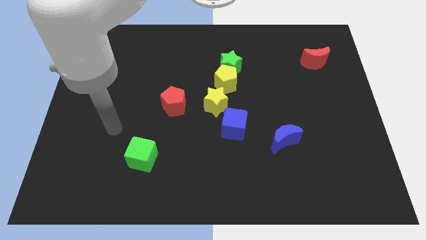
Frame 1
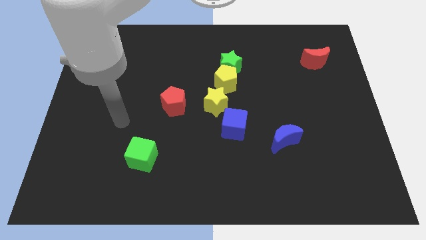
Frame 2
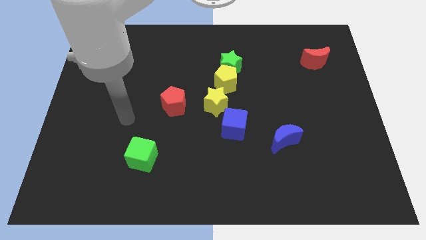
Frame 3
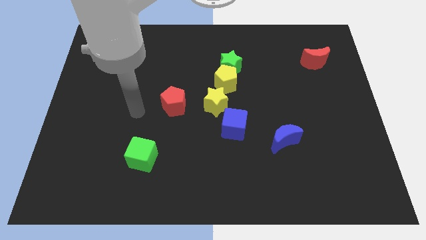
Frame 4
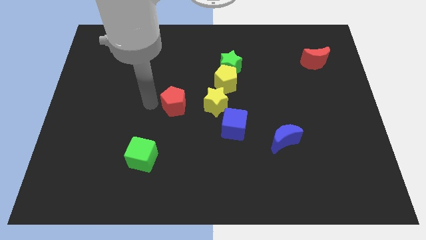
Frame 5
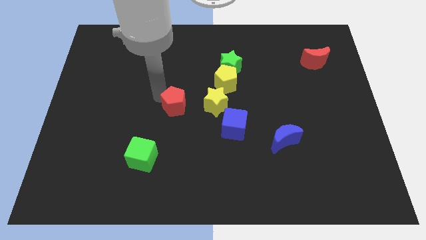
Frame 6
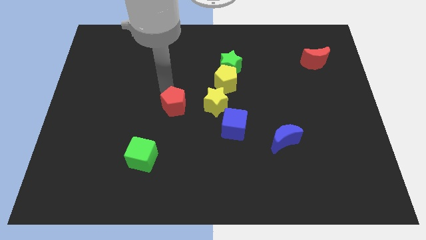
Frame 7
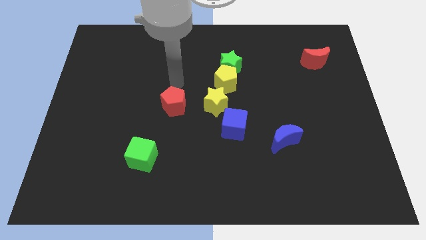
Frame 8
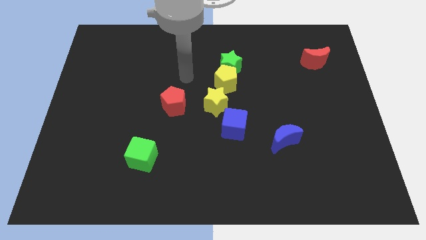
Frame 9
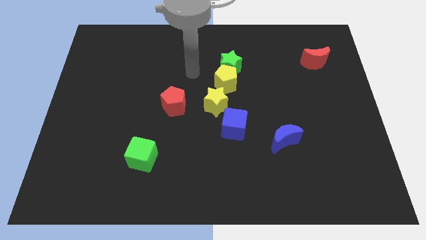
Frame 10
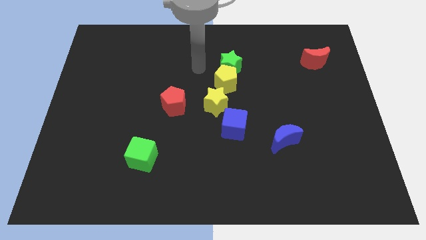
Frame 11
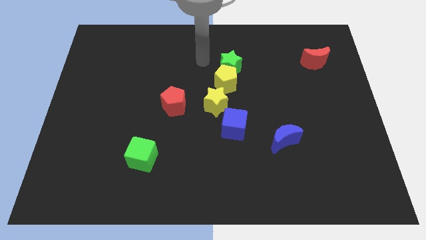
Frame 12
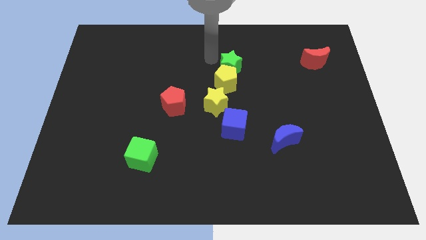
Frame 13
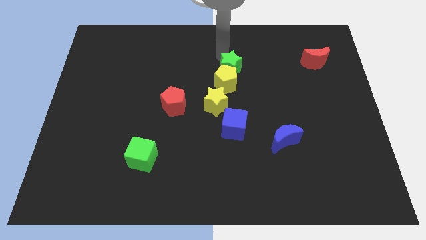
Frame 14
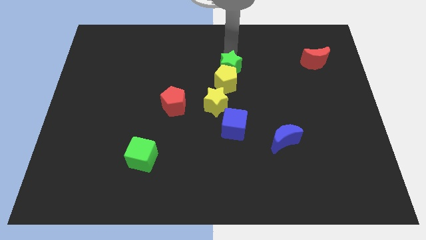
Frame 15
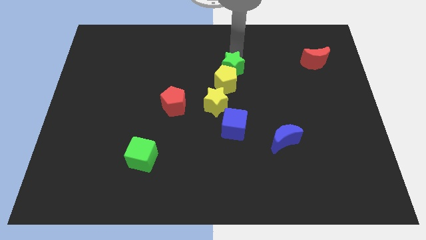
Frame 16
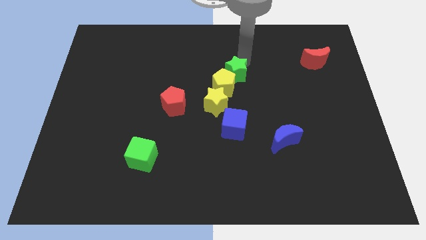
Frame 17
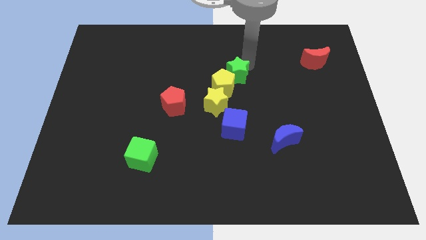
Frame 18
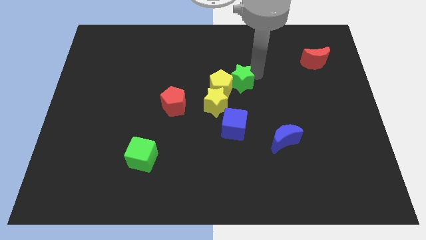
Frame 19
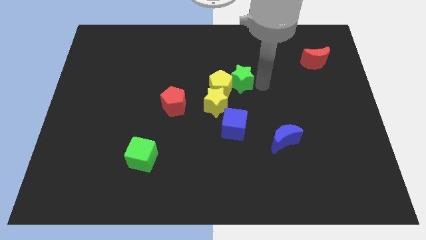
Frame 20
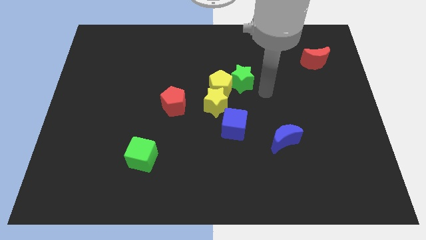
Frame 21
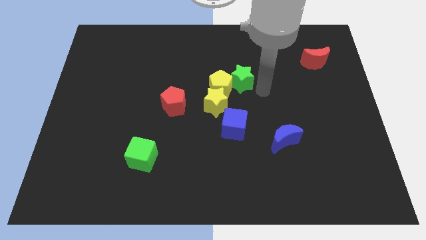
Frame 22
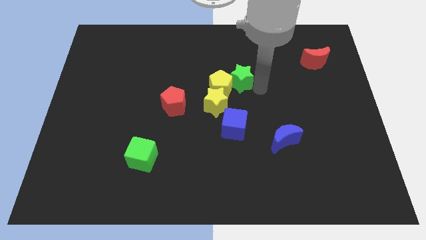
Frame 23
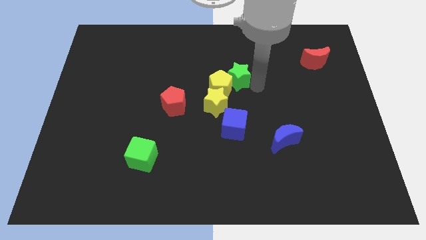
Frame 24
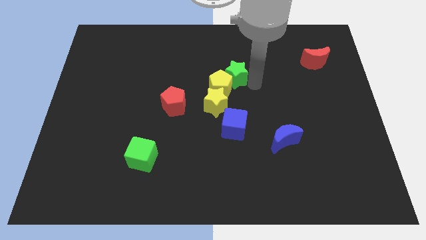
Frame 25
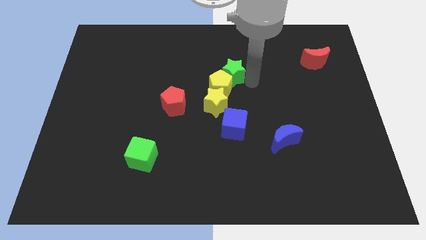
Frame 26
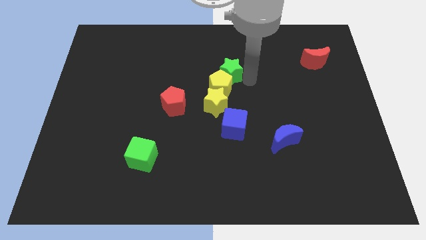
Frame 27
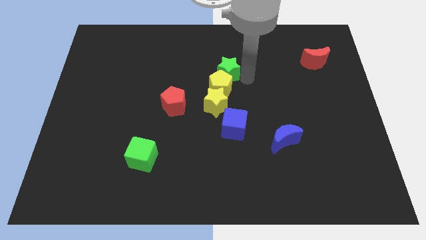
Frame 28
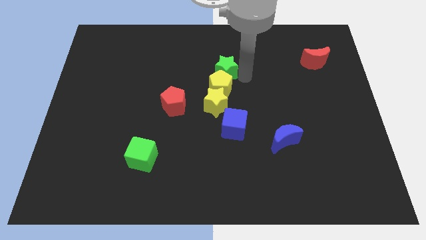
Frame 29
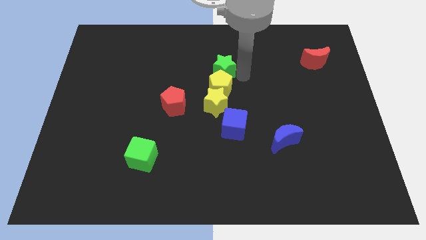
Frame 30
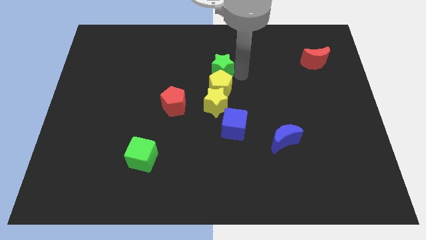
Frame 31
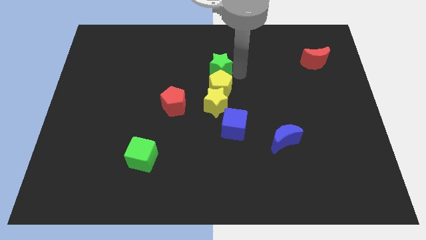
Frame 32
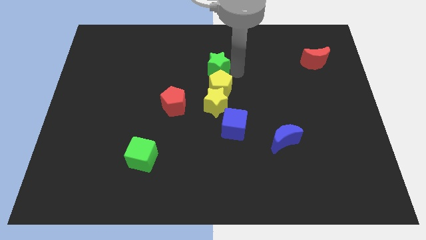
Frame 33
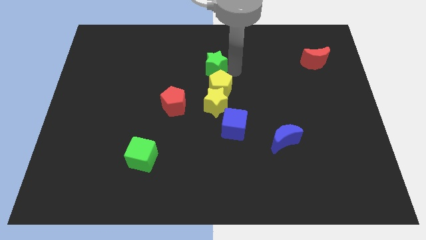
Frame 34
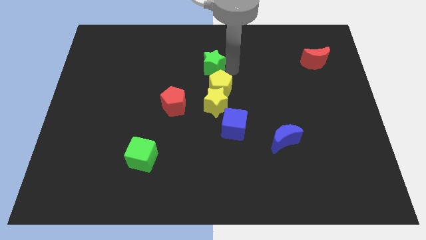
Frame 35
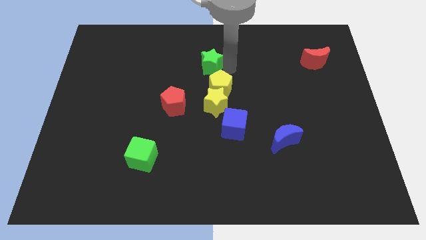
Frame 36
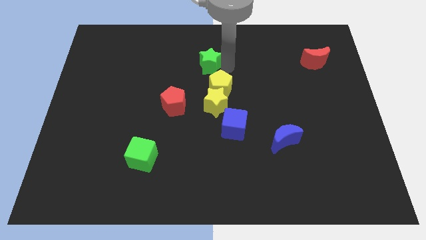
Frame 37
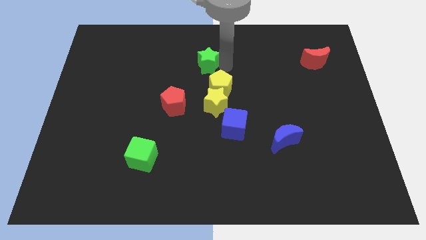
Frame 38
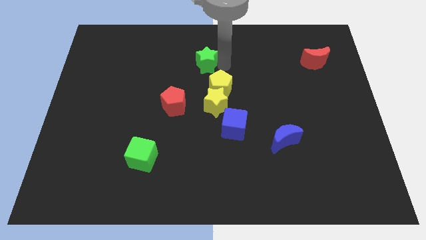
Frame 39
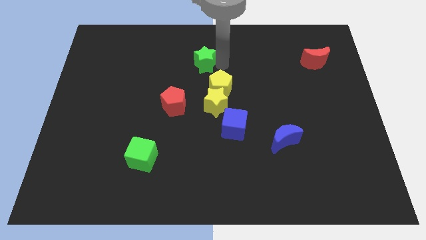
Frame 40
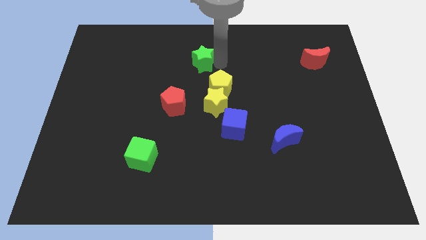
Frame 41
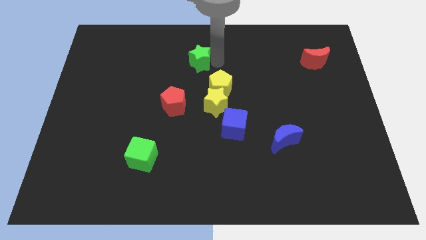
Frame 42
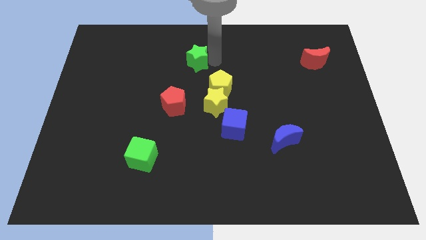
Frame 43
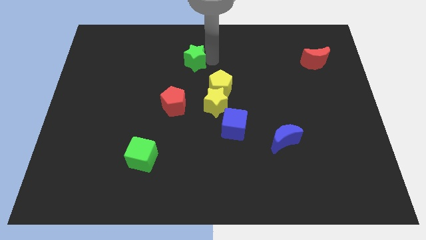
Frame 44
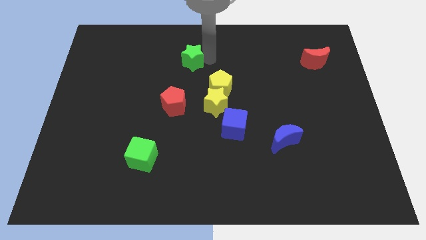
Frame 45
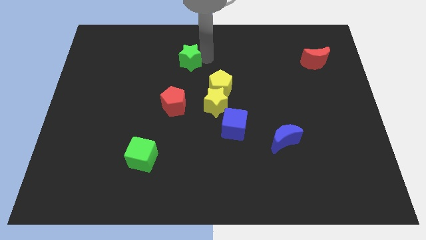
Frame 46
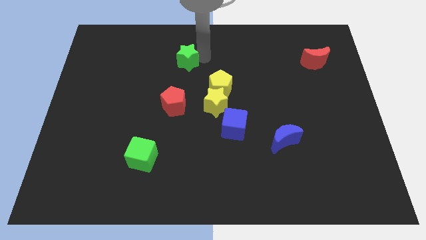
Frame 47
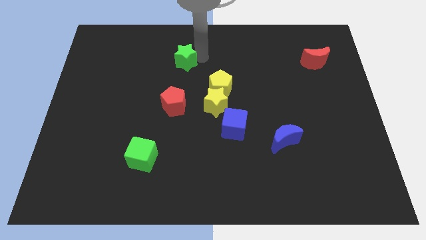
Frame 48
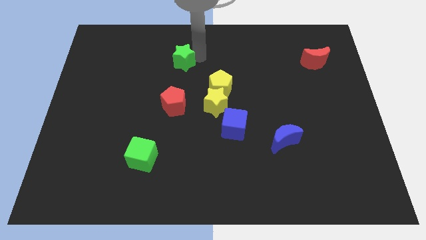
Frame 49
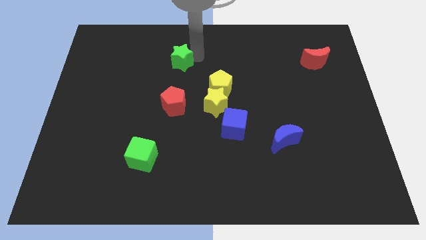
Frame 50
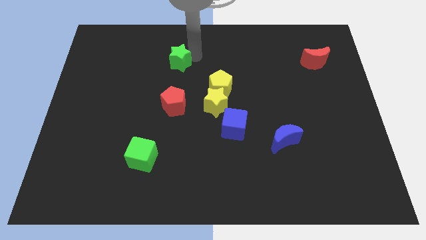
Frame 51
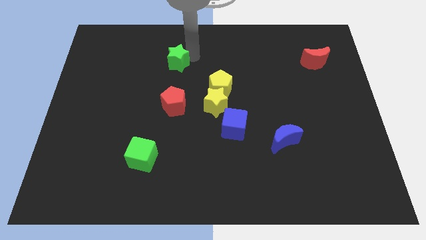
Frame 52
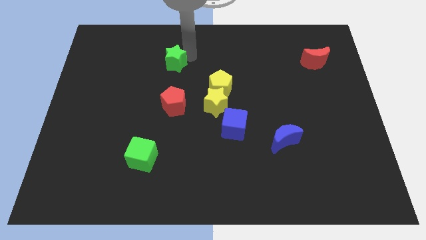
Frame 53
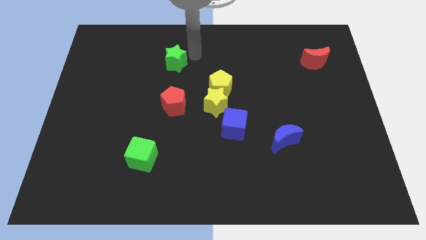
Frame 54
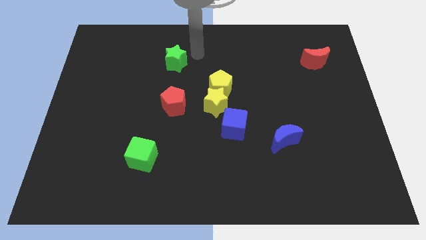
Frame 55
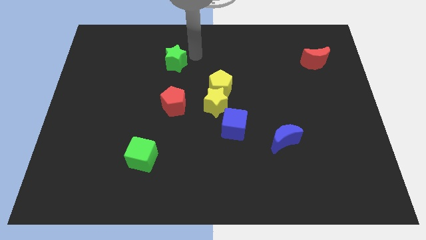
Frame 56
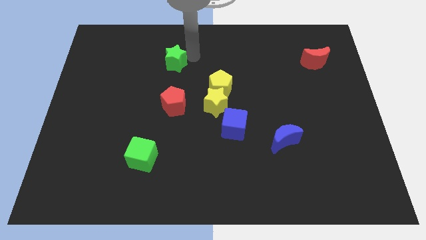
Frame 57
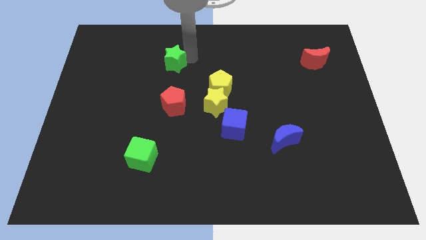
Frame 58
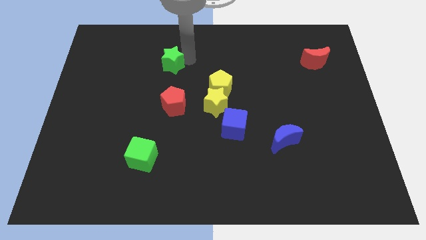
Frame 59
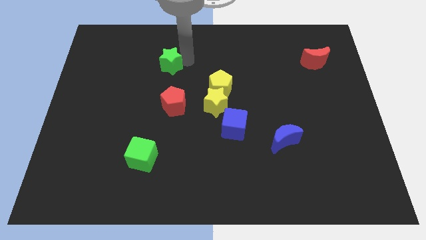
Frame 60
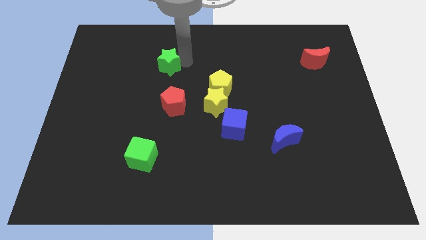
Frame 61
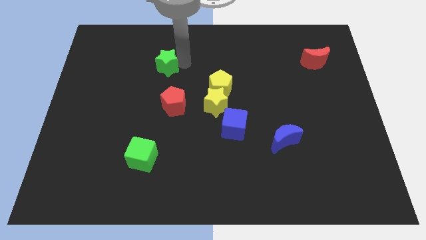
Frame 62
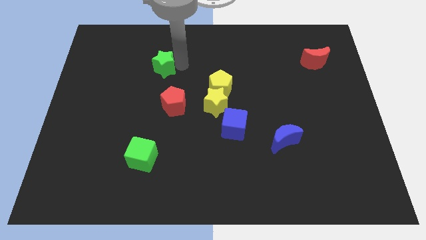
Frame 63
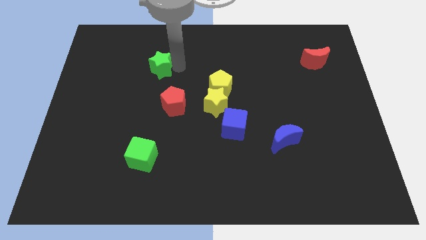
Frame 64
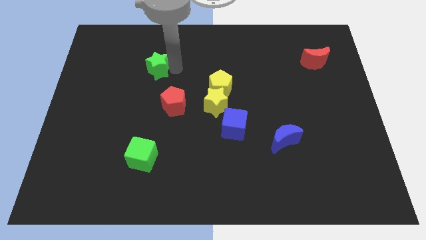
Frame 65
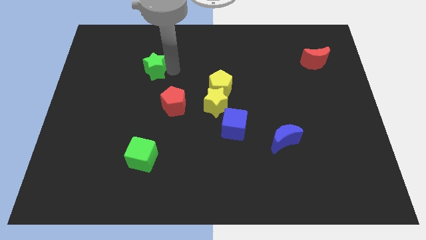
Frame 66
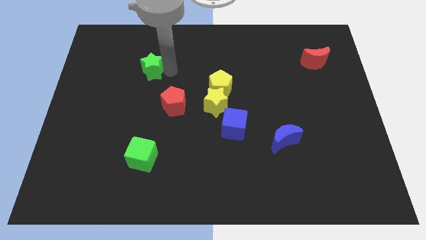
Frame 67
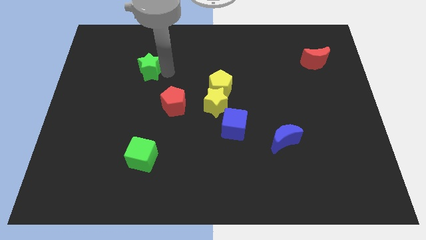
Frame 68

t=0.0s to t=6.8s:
slide the green star to the left

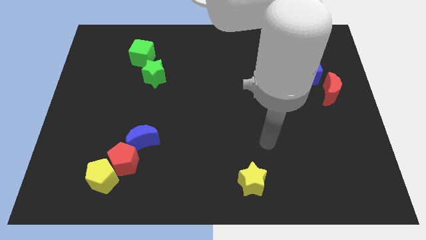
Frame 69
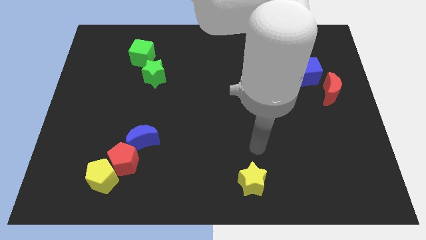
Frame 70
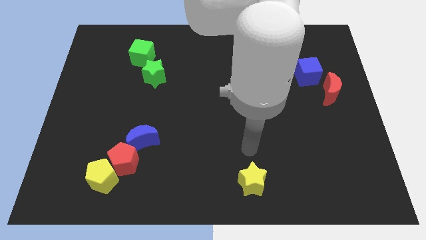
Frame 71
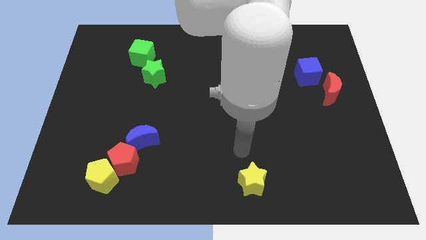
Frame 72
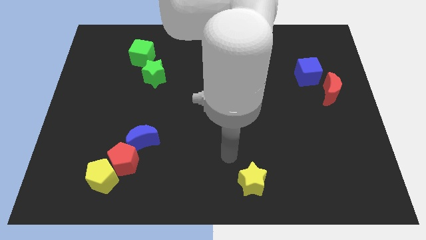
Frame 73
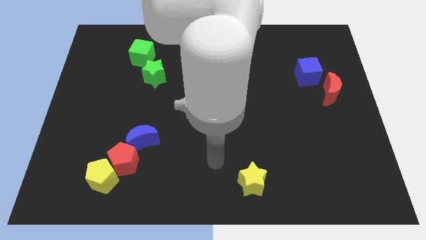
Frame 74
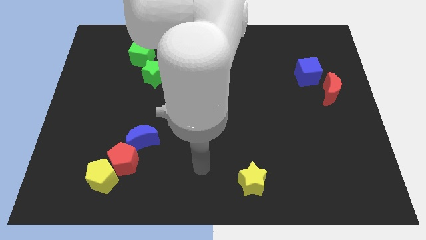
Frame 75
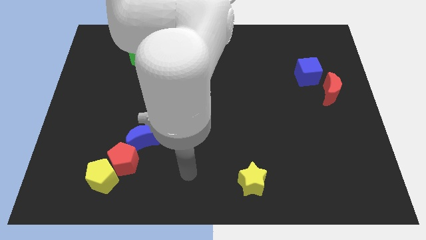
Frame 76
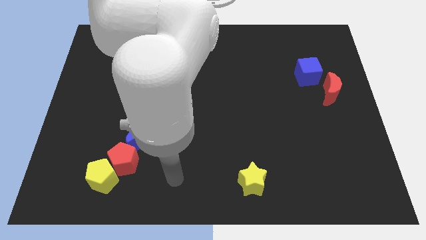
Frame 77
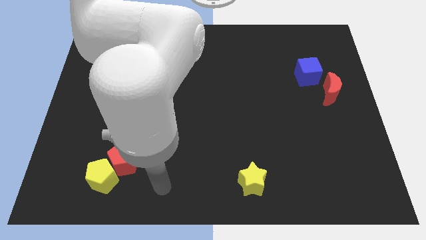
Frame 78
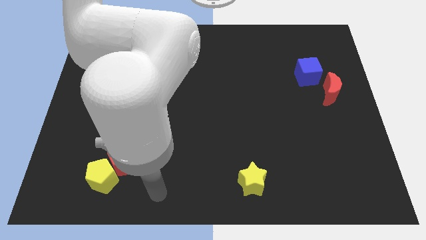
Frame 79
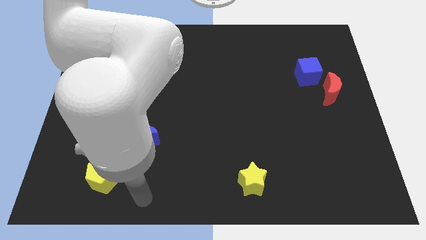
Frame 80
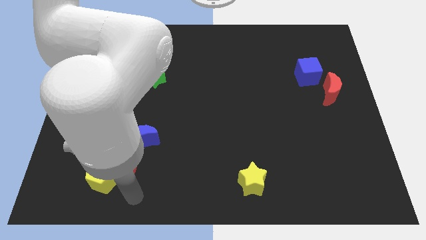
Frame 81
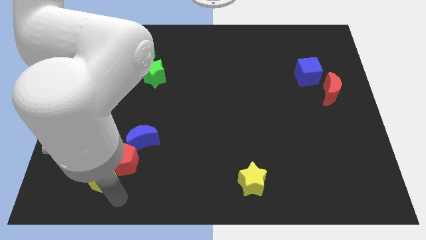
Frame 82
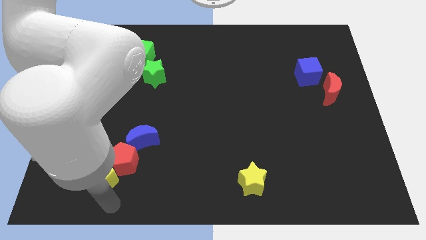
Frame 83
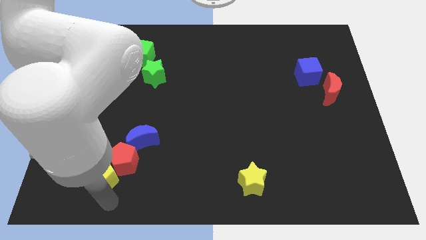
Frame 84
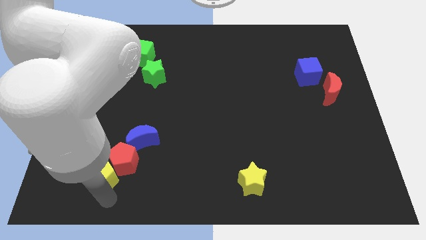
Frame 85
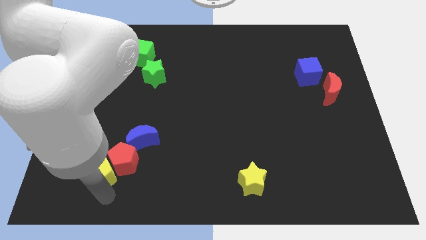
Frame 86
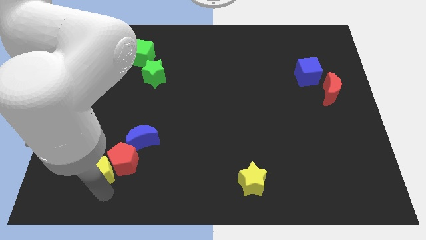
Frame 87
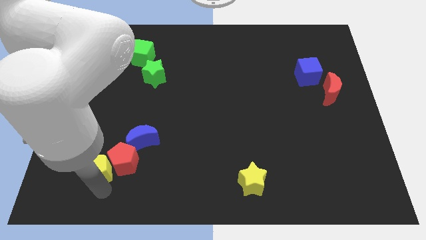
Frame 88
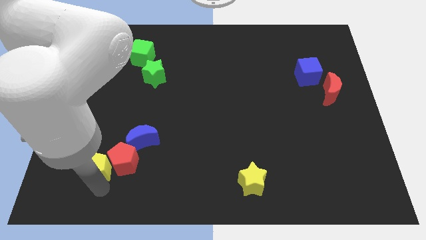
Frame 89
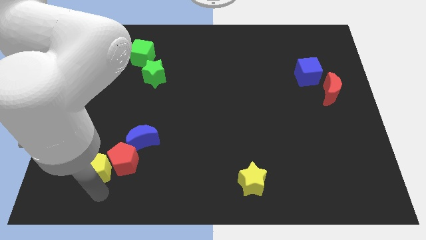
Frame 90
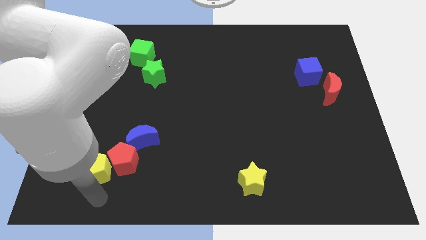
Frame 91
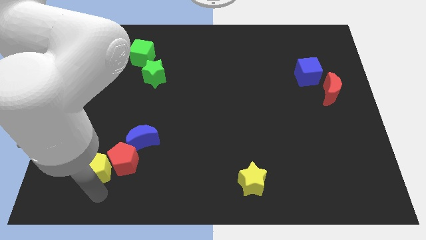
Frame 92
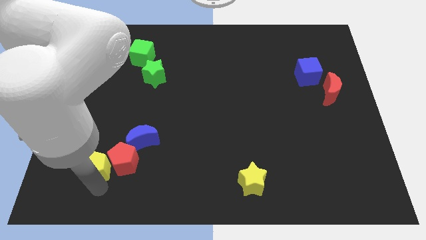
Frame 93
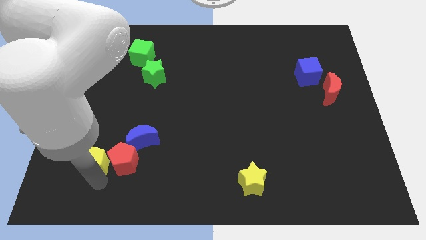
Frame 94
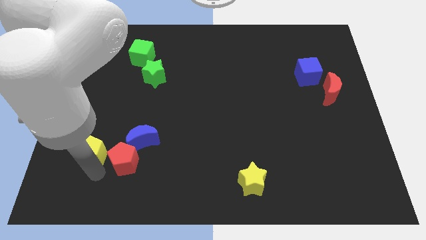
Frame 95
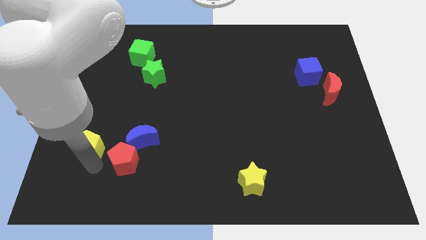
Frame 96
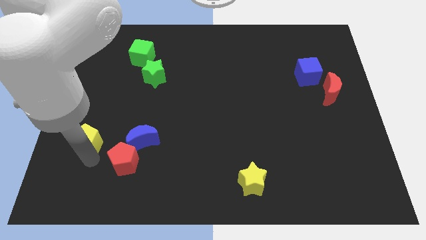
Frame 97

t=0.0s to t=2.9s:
slide the yellow pentagon upwards slightly
